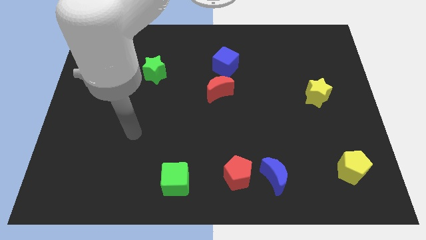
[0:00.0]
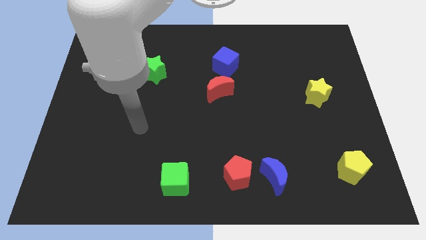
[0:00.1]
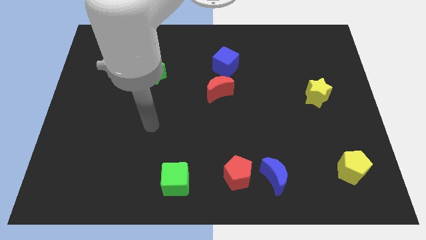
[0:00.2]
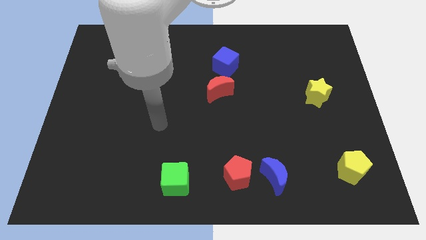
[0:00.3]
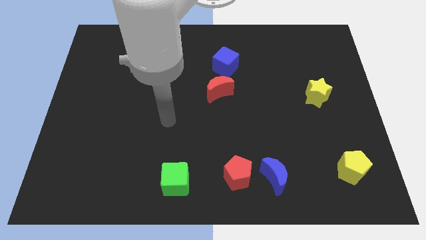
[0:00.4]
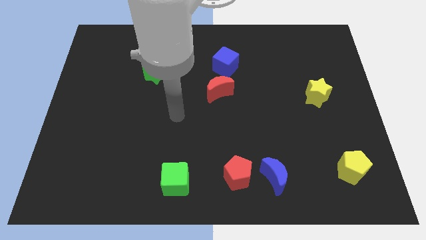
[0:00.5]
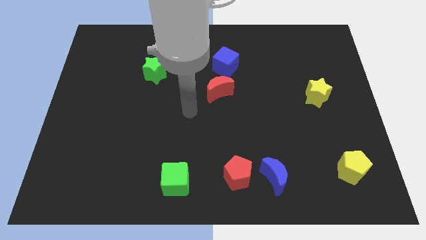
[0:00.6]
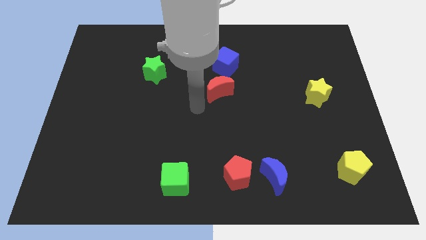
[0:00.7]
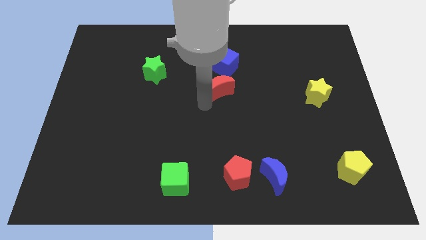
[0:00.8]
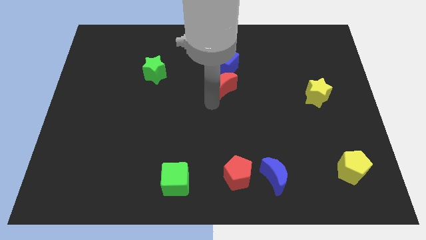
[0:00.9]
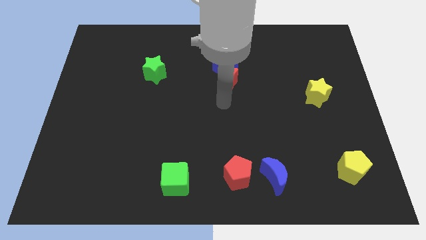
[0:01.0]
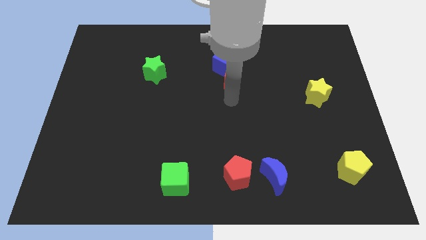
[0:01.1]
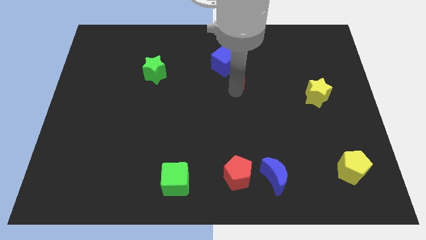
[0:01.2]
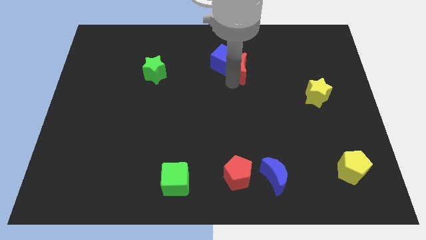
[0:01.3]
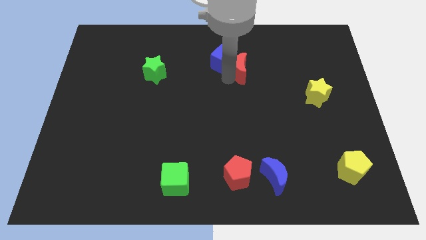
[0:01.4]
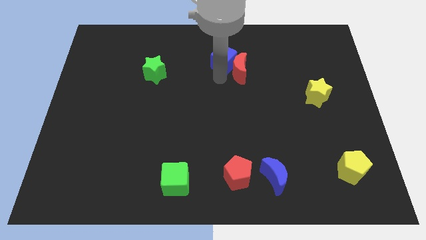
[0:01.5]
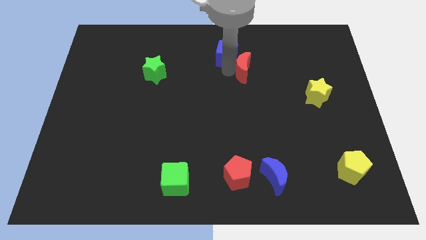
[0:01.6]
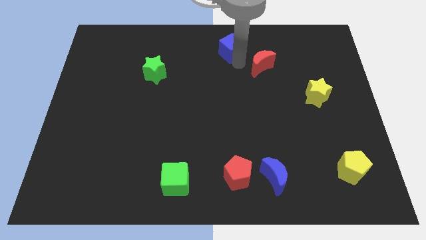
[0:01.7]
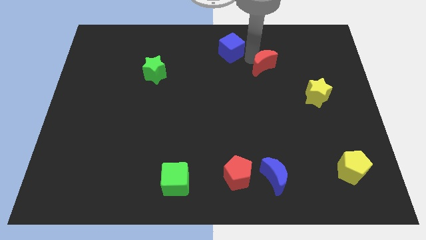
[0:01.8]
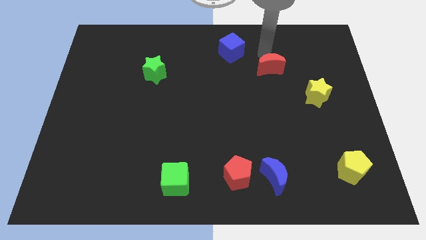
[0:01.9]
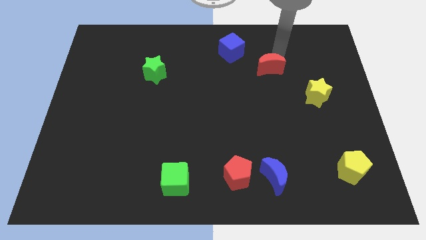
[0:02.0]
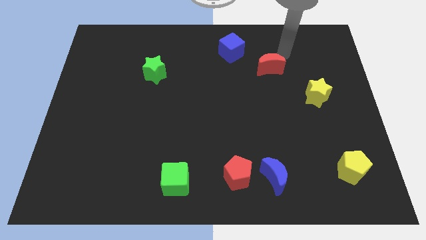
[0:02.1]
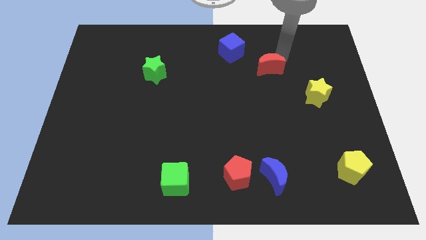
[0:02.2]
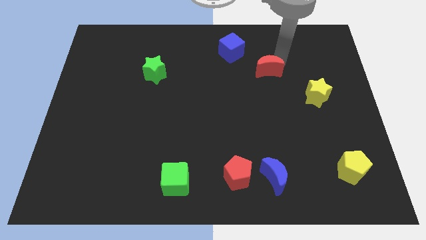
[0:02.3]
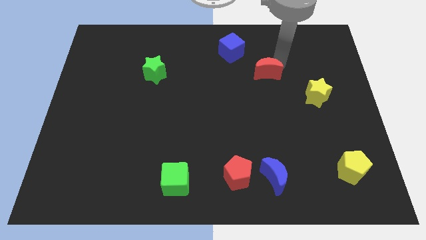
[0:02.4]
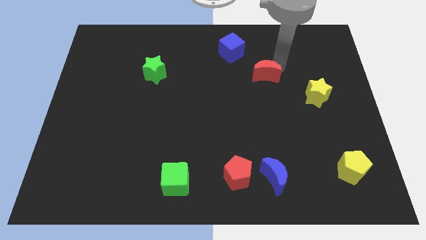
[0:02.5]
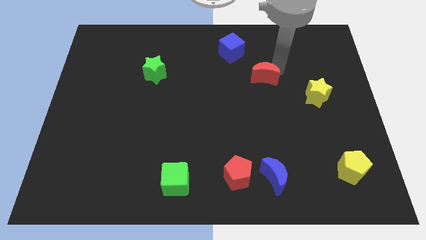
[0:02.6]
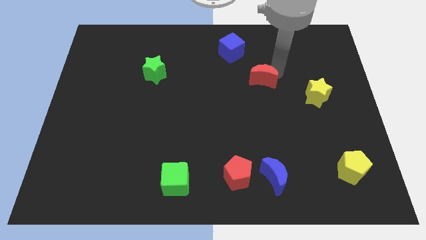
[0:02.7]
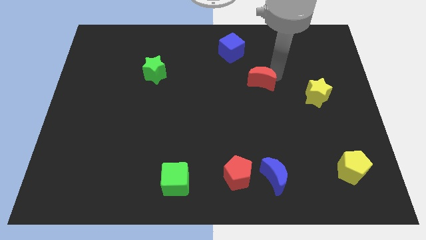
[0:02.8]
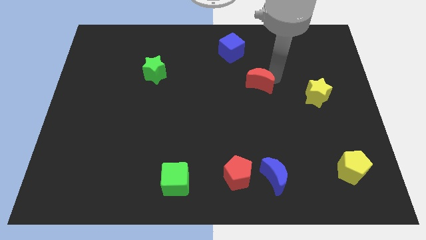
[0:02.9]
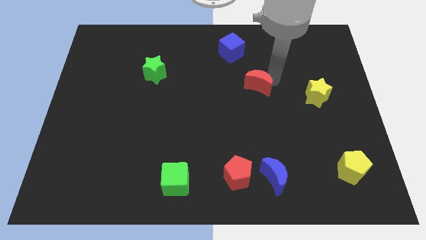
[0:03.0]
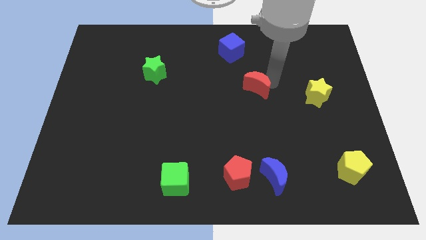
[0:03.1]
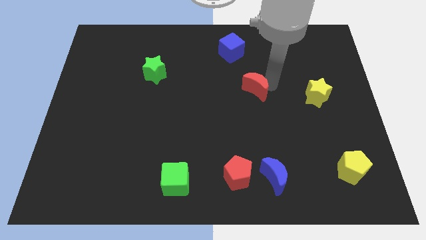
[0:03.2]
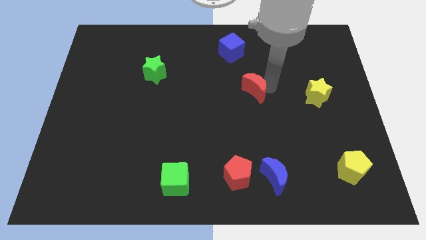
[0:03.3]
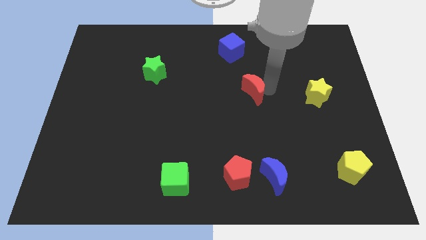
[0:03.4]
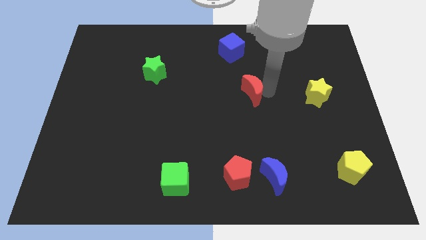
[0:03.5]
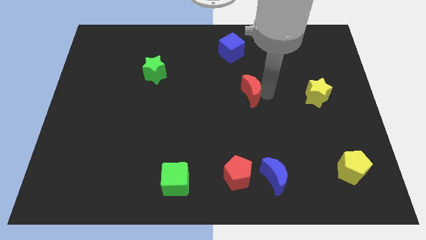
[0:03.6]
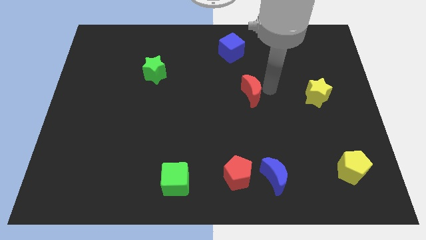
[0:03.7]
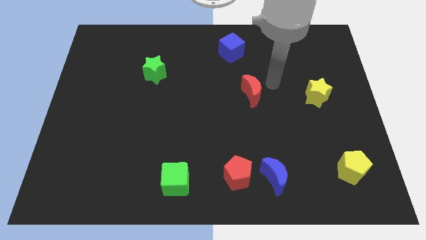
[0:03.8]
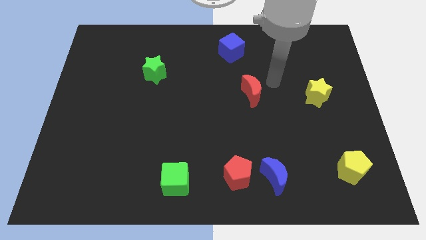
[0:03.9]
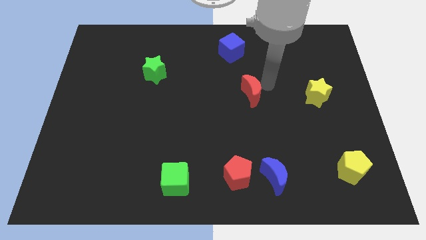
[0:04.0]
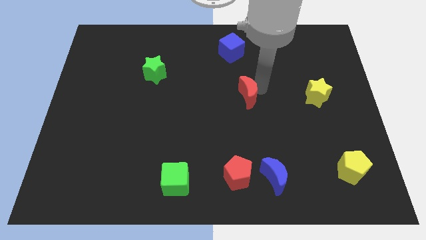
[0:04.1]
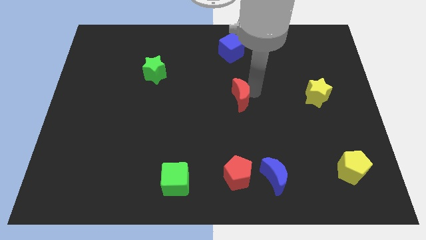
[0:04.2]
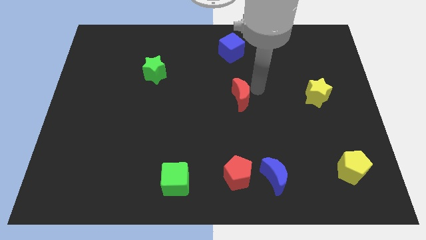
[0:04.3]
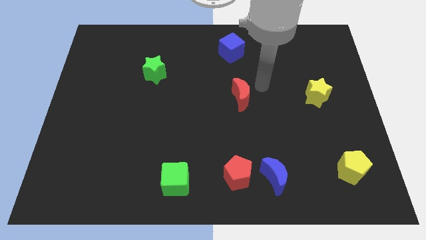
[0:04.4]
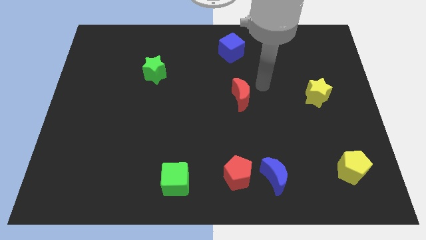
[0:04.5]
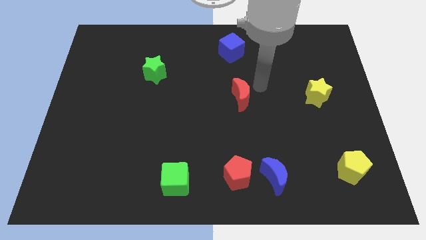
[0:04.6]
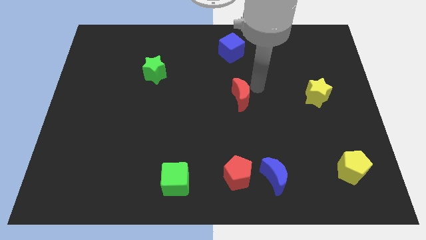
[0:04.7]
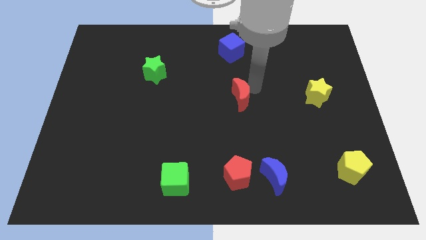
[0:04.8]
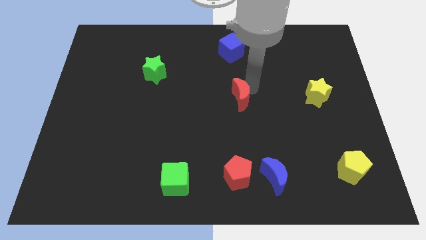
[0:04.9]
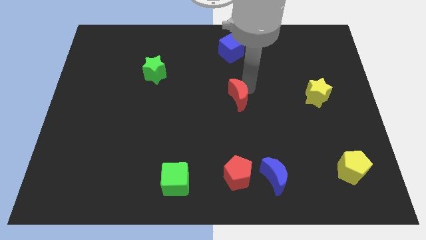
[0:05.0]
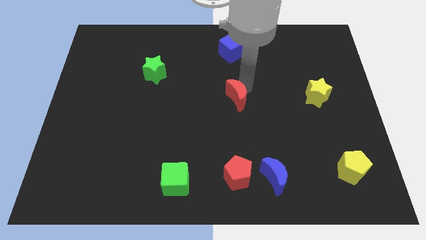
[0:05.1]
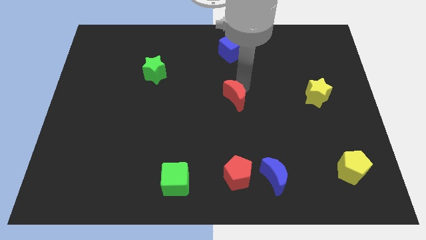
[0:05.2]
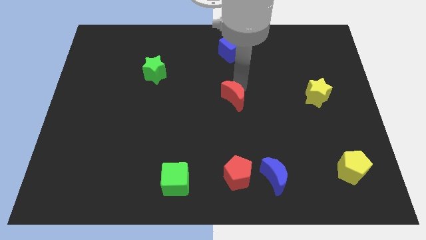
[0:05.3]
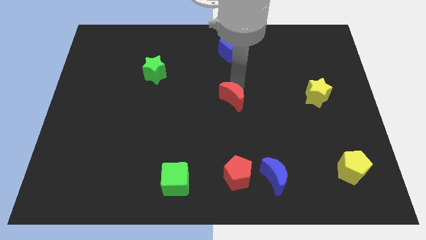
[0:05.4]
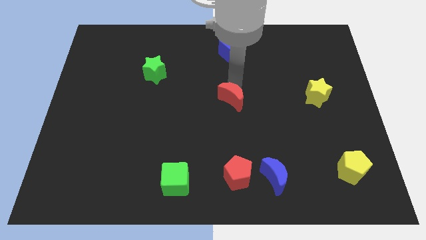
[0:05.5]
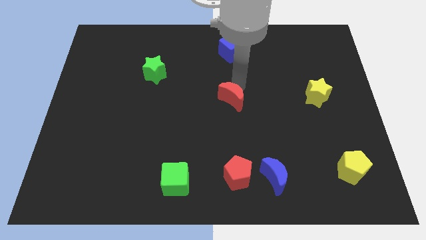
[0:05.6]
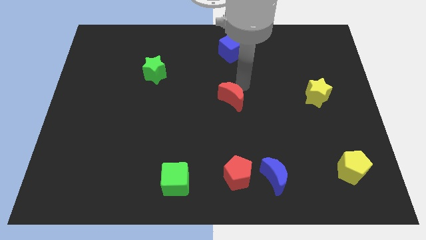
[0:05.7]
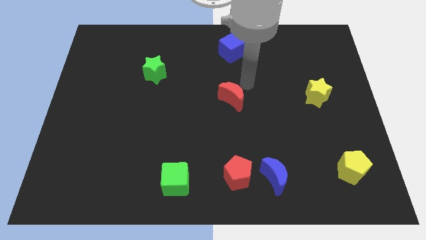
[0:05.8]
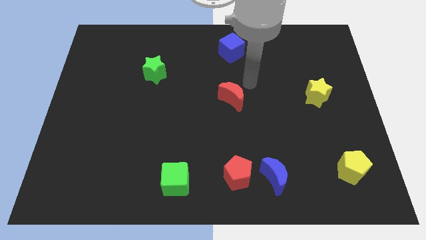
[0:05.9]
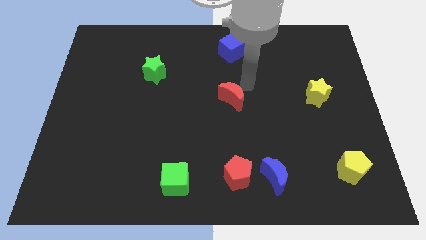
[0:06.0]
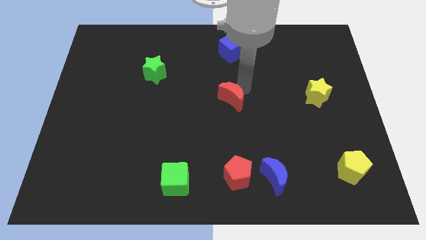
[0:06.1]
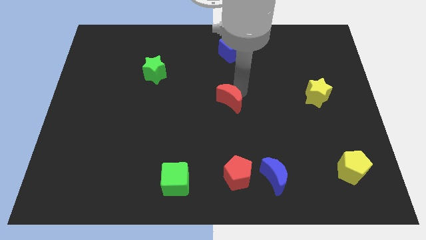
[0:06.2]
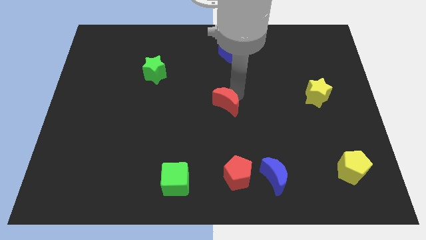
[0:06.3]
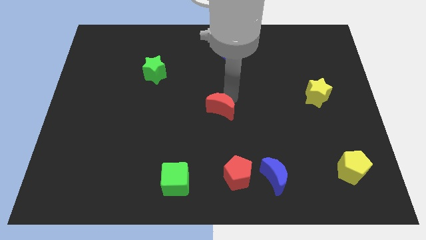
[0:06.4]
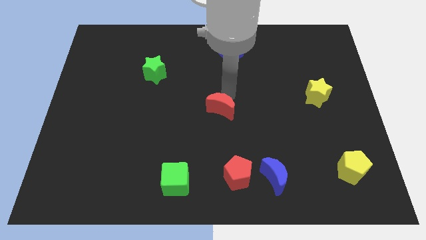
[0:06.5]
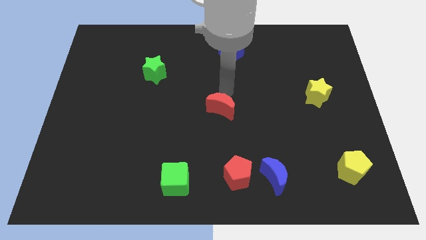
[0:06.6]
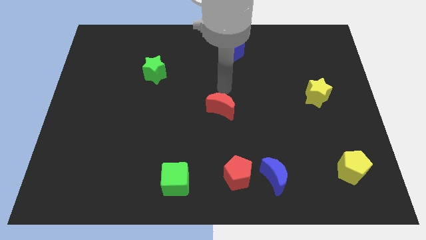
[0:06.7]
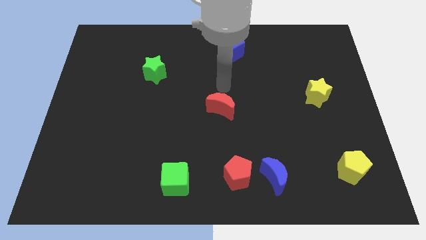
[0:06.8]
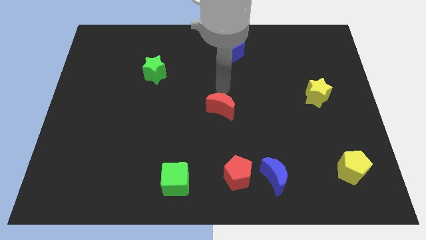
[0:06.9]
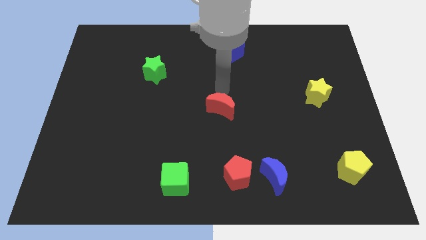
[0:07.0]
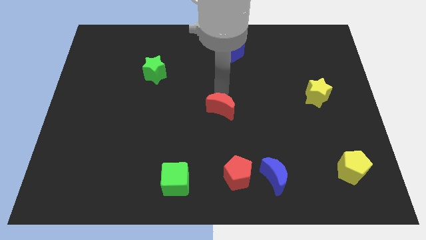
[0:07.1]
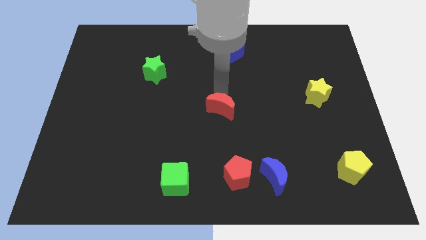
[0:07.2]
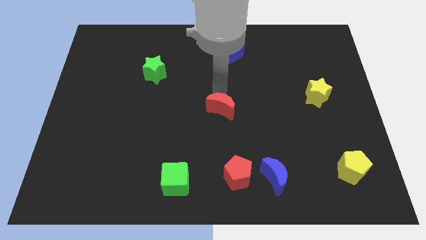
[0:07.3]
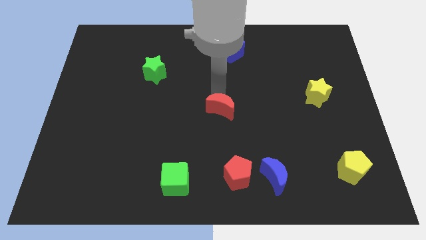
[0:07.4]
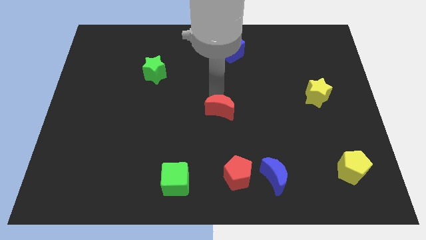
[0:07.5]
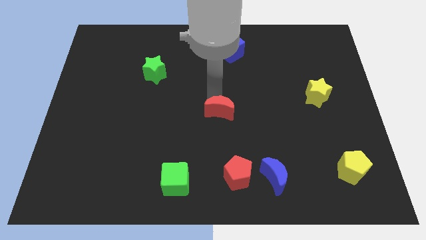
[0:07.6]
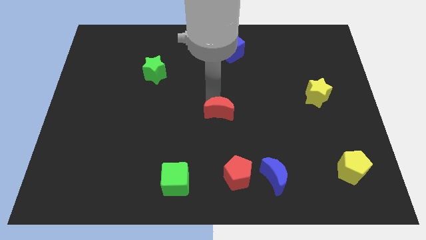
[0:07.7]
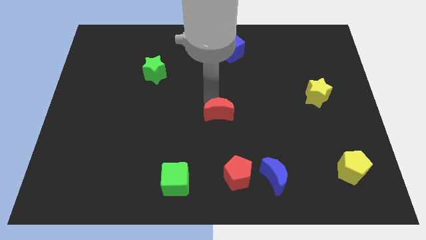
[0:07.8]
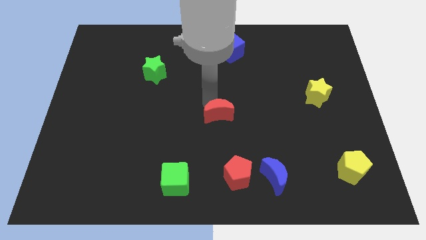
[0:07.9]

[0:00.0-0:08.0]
slightly move the red moon downwards
